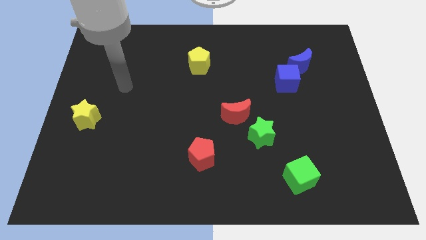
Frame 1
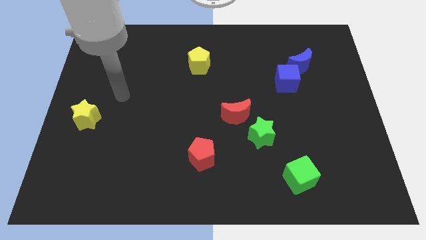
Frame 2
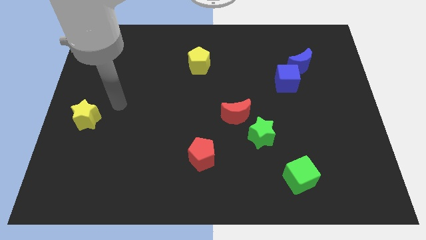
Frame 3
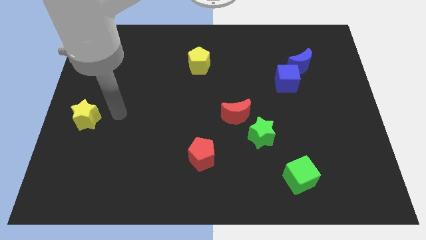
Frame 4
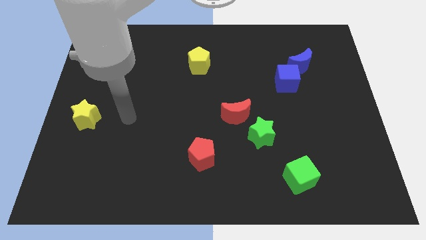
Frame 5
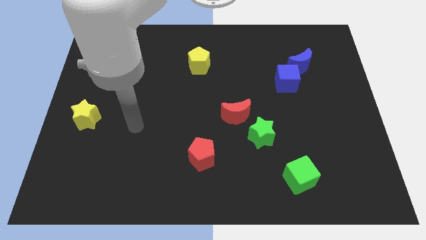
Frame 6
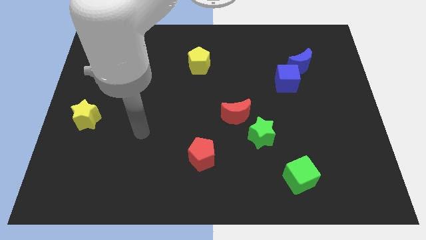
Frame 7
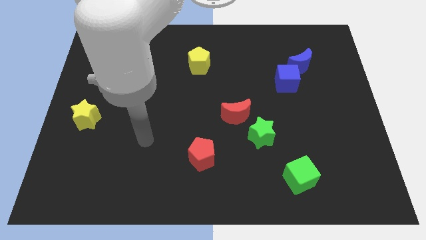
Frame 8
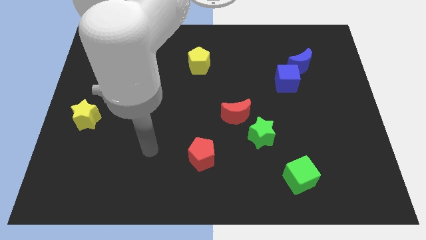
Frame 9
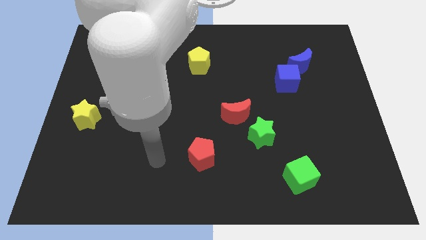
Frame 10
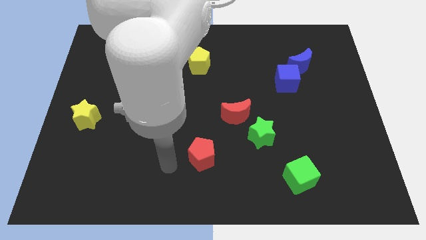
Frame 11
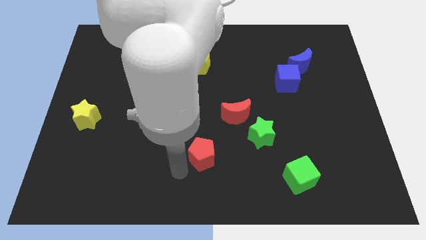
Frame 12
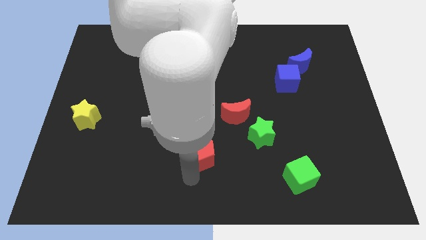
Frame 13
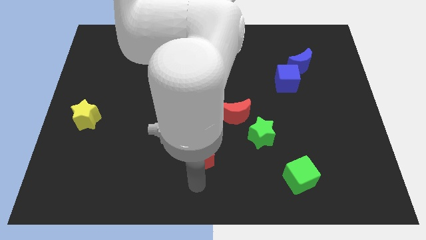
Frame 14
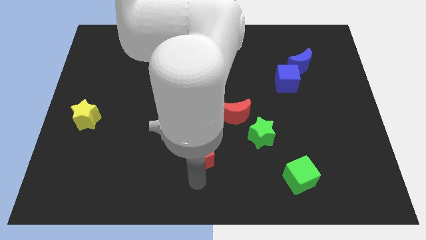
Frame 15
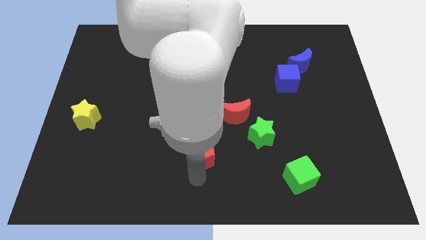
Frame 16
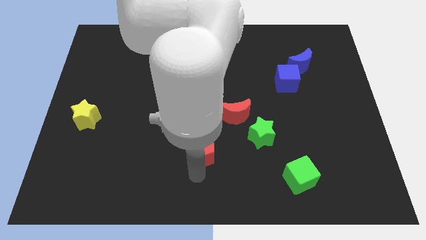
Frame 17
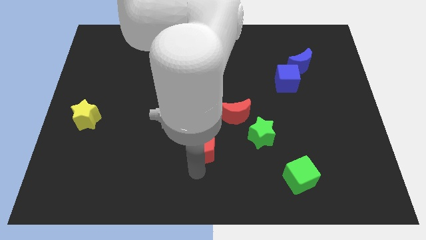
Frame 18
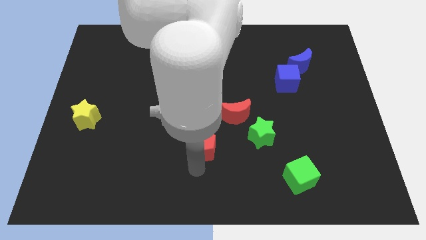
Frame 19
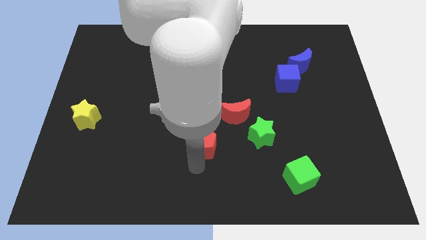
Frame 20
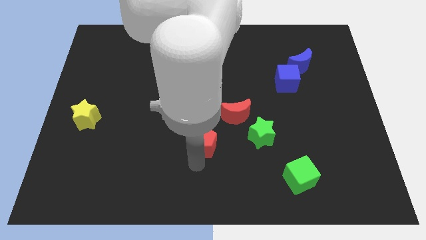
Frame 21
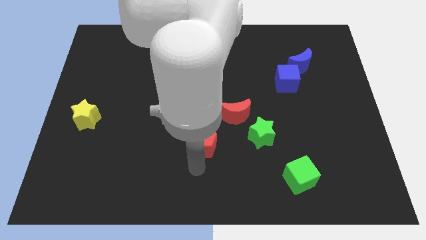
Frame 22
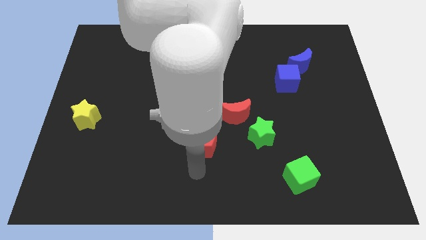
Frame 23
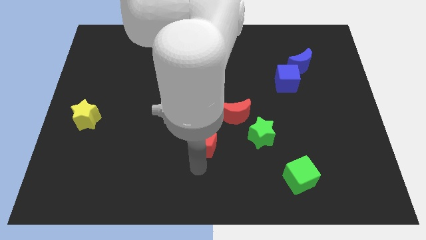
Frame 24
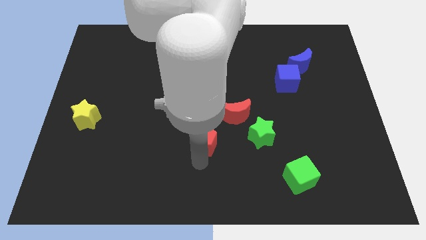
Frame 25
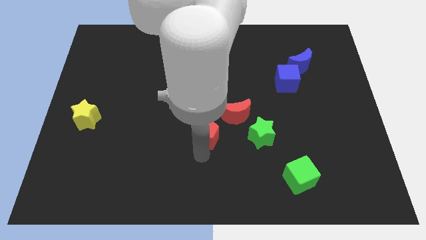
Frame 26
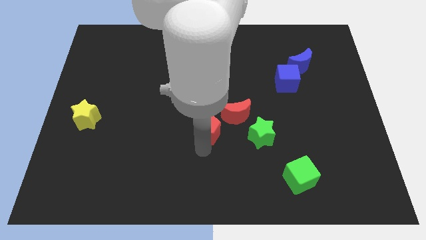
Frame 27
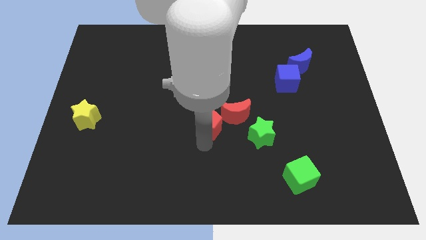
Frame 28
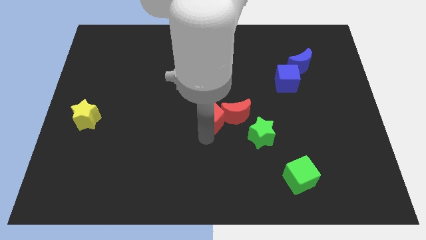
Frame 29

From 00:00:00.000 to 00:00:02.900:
slightly push the red pentagon upwards and then right

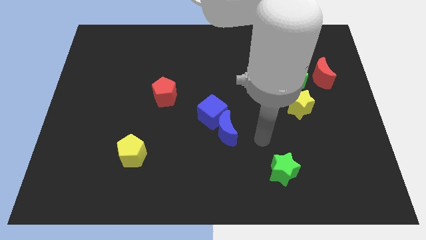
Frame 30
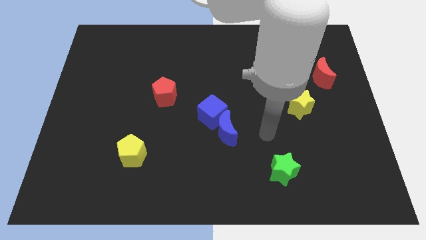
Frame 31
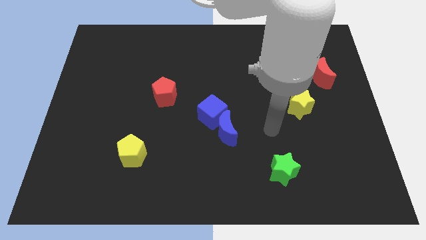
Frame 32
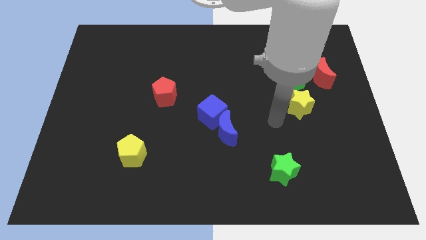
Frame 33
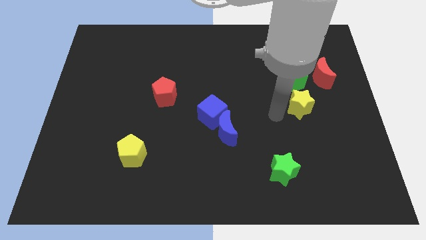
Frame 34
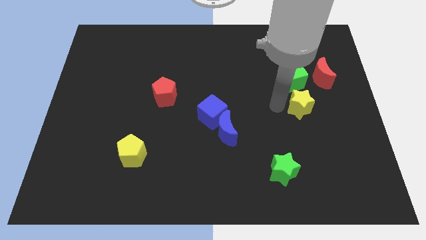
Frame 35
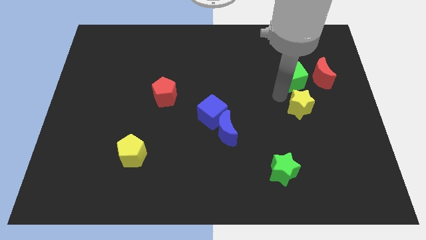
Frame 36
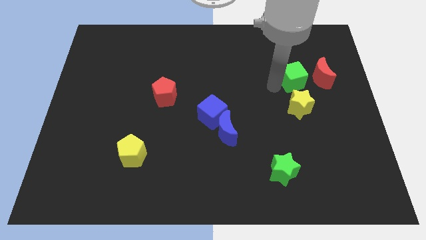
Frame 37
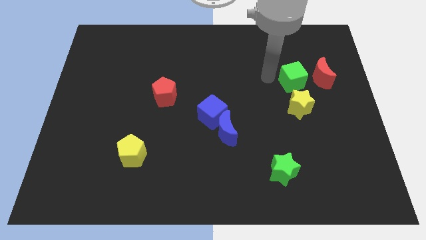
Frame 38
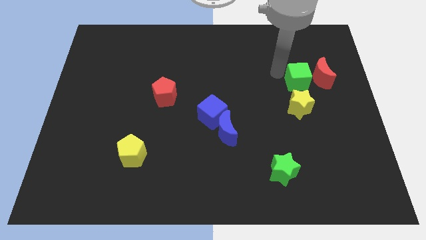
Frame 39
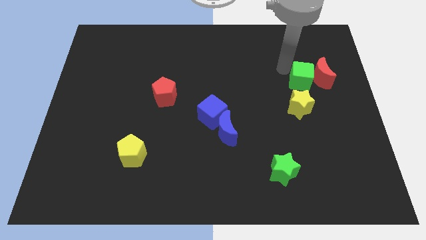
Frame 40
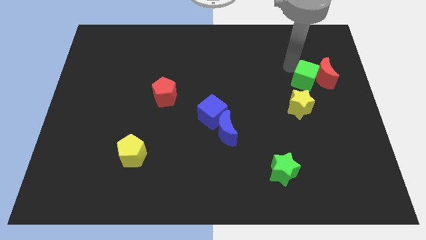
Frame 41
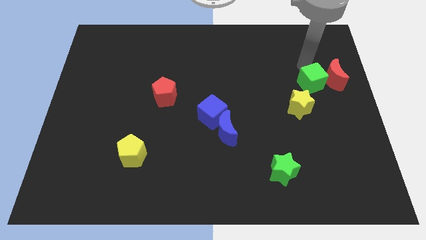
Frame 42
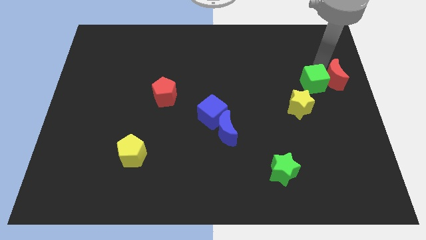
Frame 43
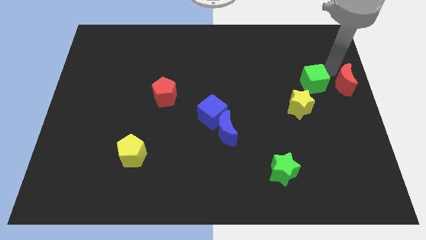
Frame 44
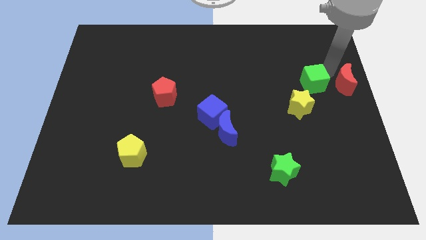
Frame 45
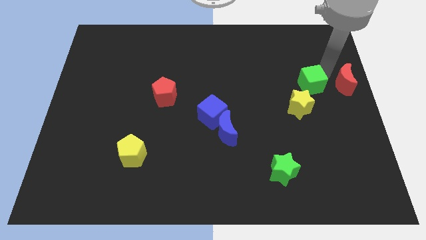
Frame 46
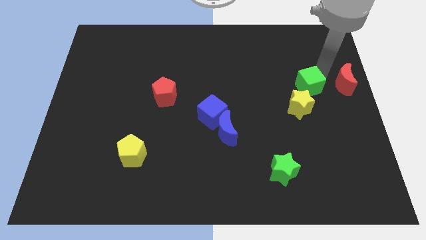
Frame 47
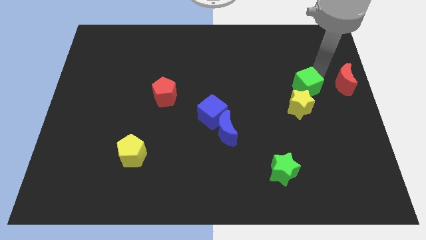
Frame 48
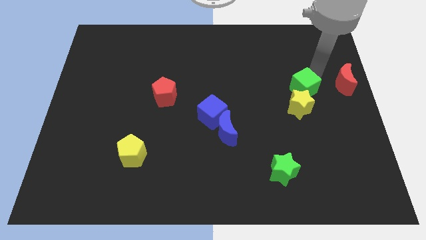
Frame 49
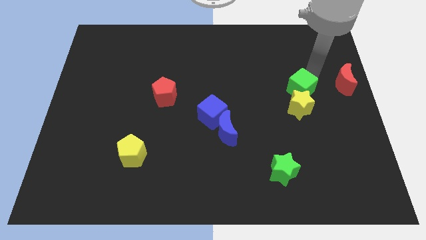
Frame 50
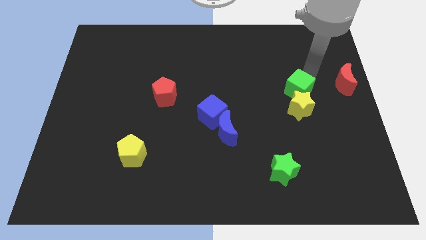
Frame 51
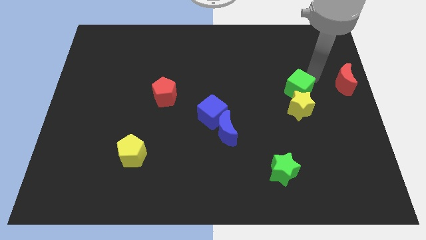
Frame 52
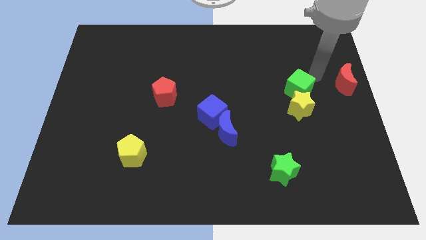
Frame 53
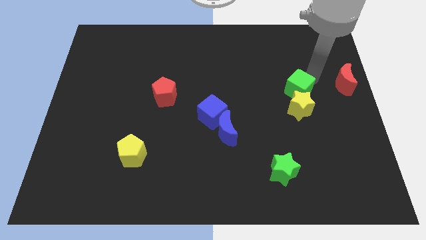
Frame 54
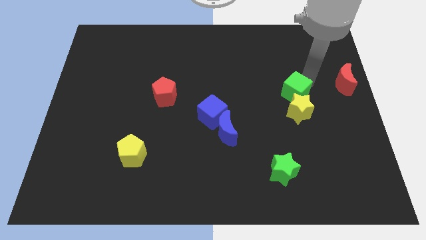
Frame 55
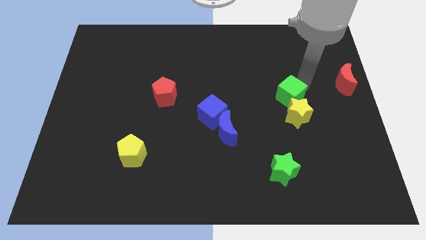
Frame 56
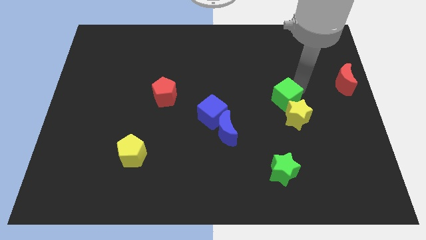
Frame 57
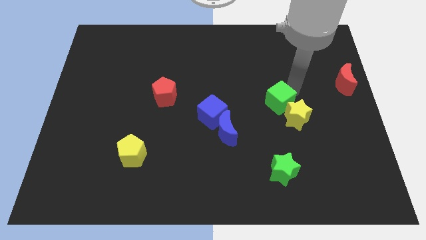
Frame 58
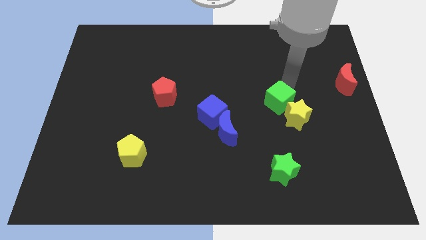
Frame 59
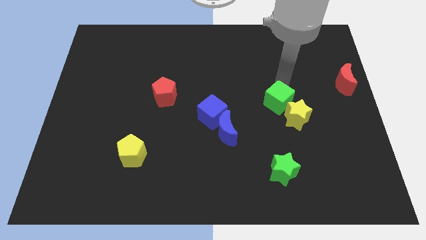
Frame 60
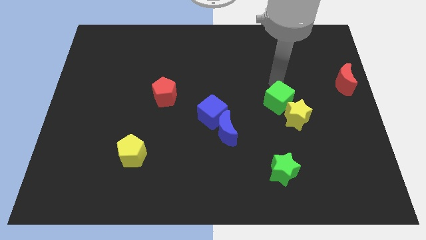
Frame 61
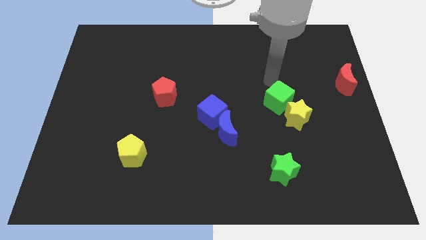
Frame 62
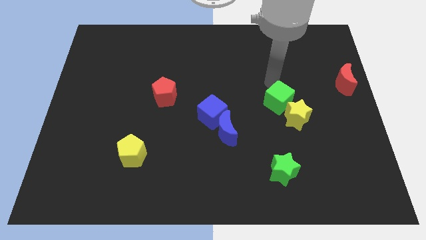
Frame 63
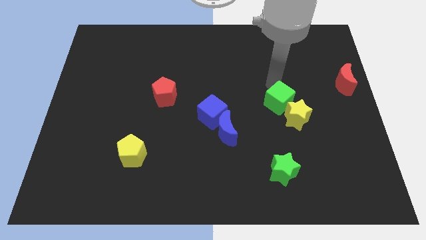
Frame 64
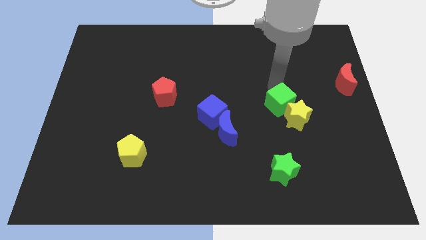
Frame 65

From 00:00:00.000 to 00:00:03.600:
push the green cube down a little

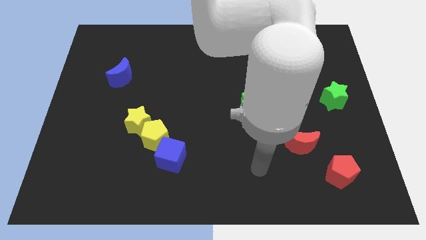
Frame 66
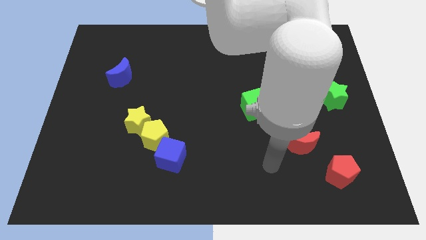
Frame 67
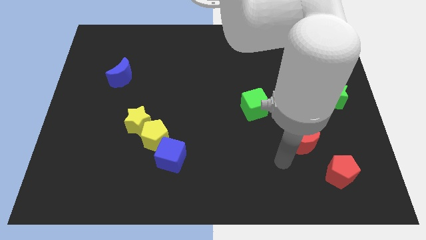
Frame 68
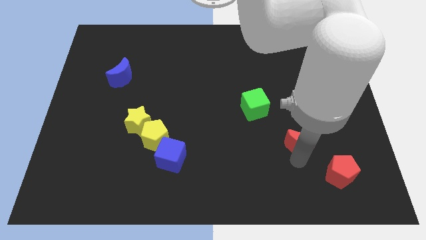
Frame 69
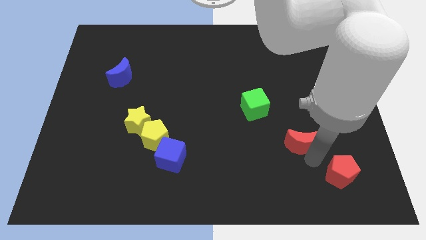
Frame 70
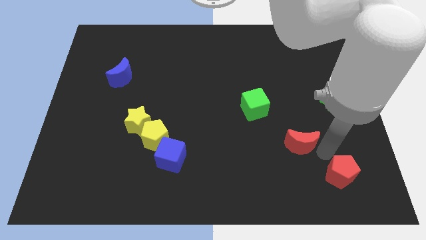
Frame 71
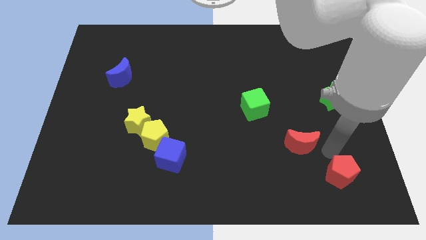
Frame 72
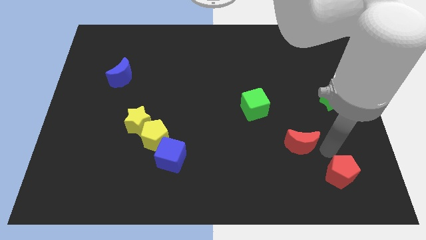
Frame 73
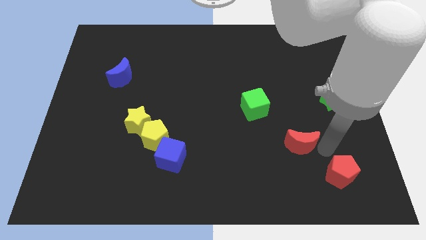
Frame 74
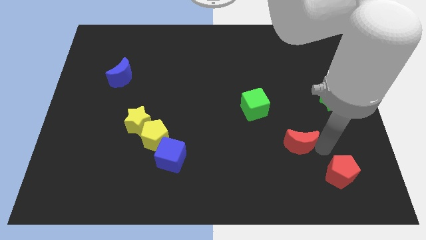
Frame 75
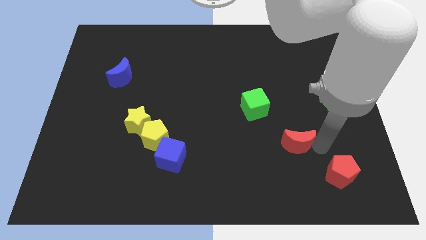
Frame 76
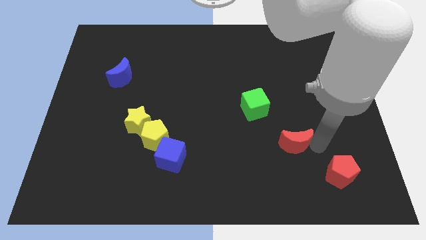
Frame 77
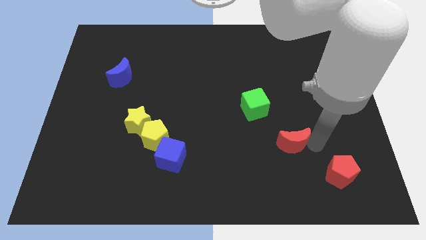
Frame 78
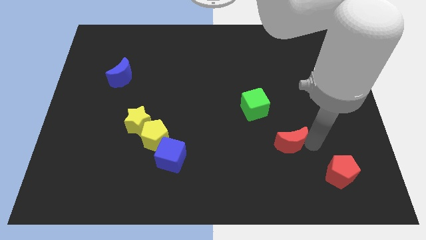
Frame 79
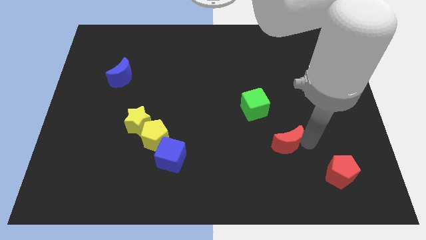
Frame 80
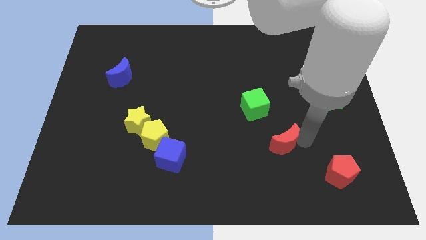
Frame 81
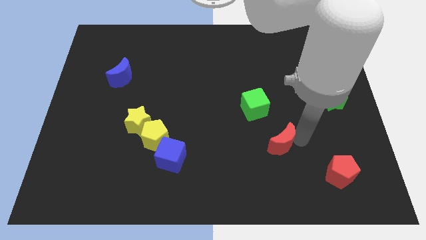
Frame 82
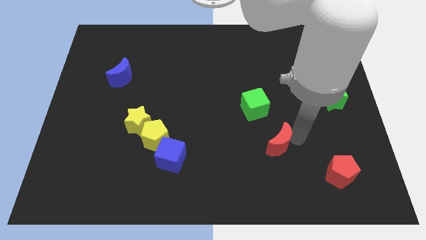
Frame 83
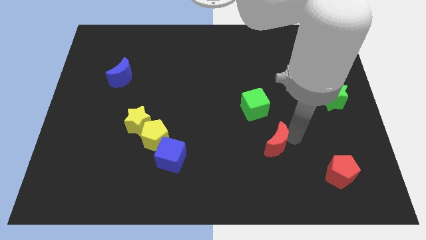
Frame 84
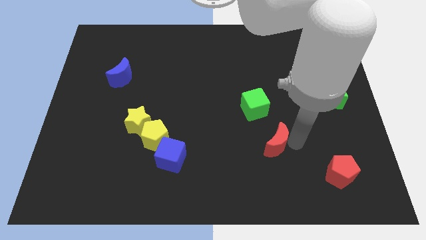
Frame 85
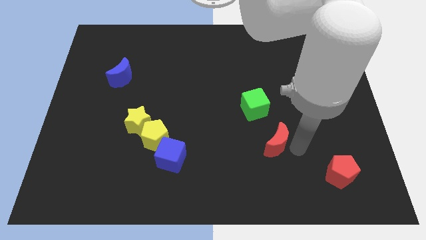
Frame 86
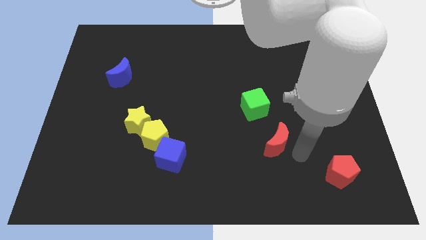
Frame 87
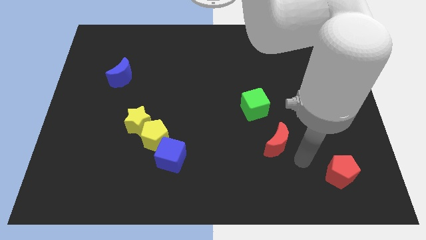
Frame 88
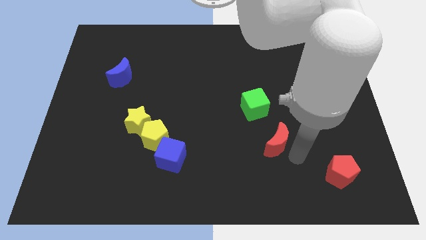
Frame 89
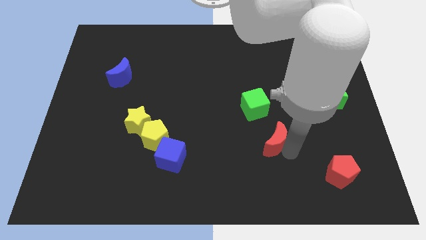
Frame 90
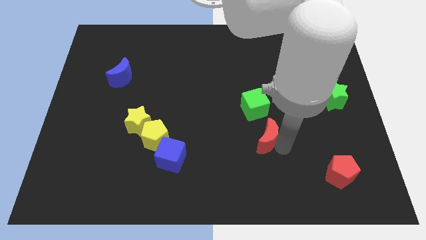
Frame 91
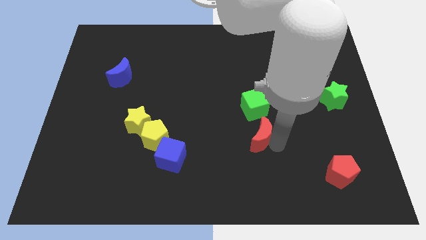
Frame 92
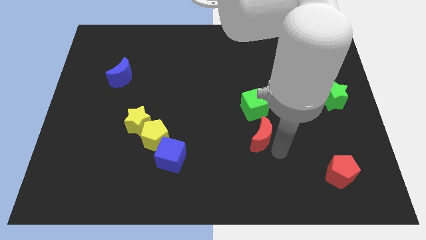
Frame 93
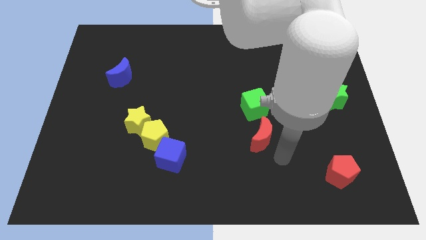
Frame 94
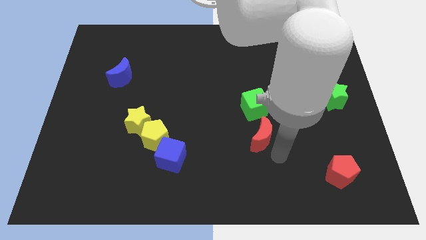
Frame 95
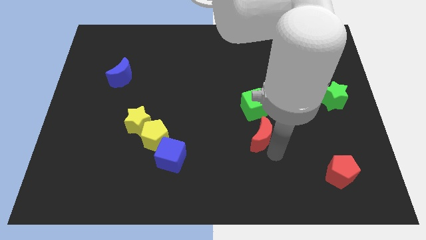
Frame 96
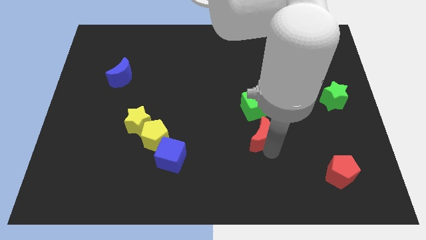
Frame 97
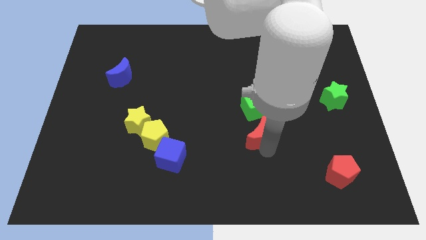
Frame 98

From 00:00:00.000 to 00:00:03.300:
move the red moon a bit diagonally upwards and left
